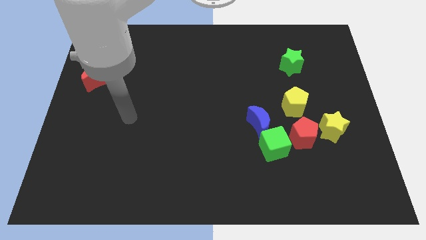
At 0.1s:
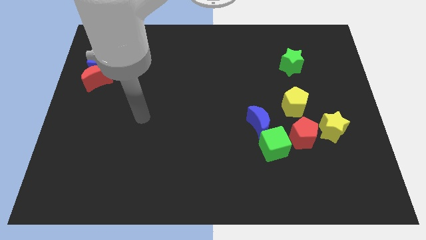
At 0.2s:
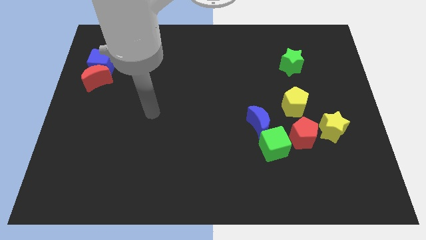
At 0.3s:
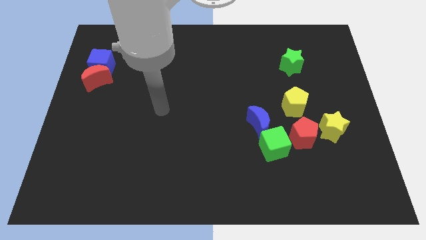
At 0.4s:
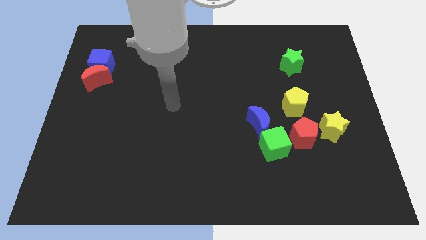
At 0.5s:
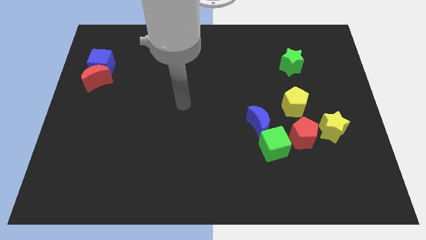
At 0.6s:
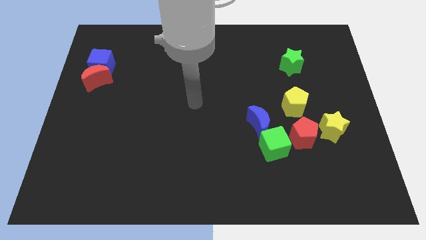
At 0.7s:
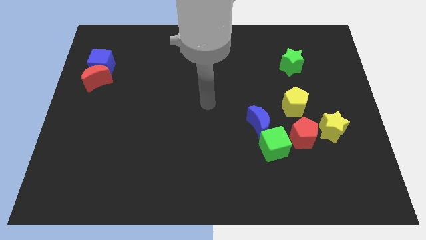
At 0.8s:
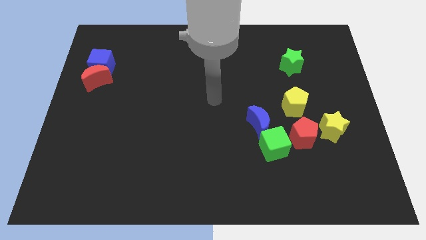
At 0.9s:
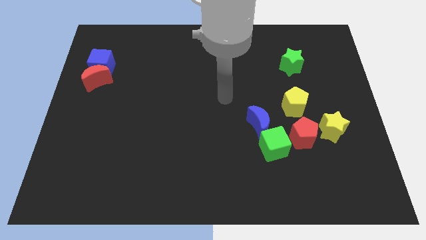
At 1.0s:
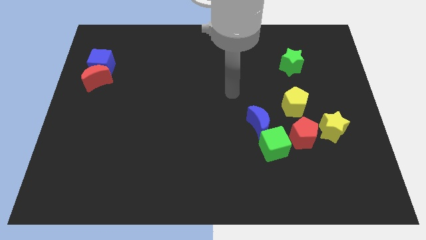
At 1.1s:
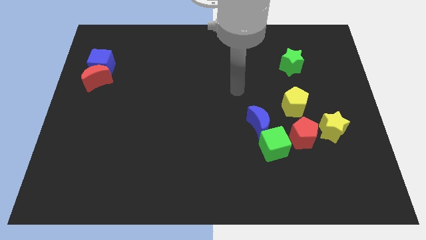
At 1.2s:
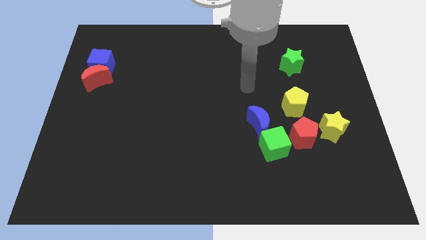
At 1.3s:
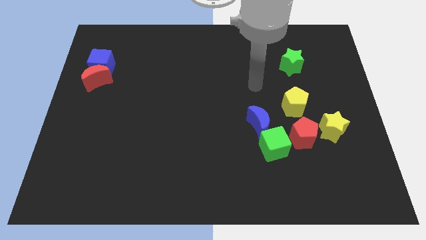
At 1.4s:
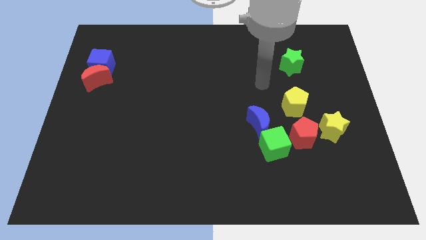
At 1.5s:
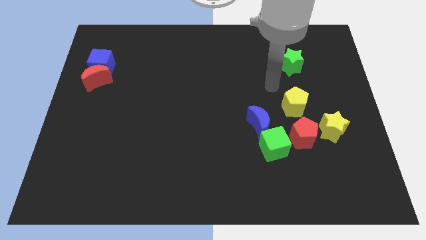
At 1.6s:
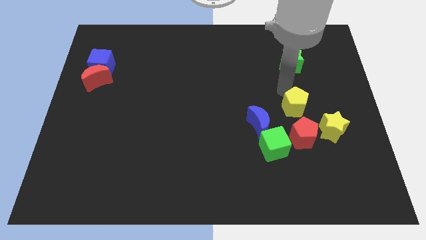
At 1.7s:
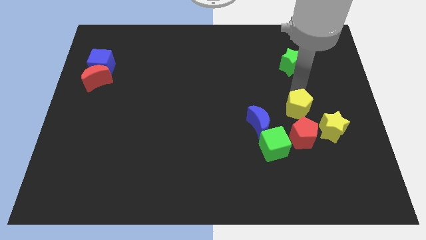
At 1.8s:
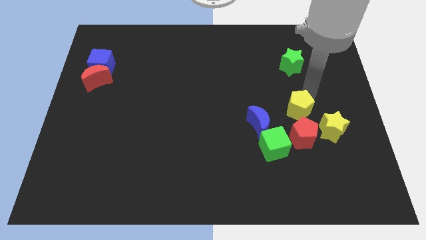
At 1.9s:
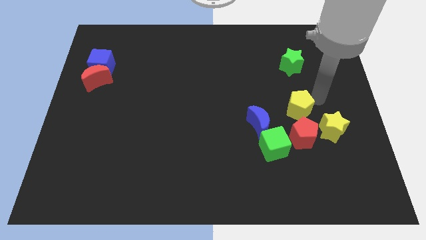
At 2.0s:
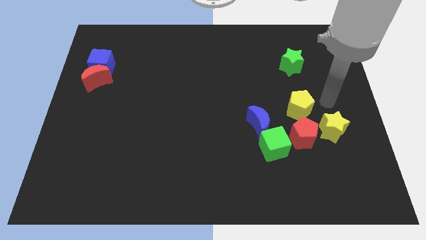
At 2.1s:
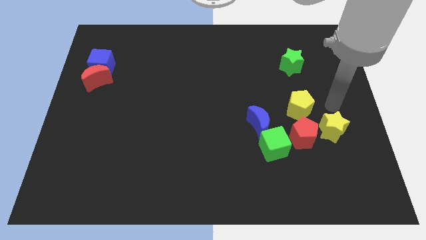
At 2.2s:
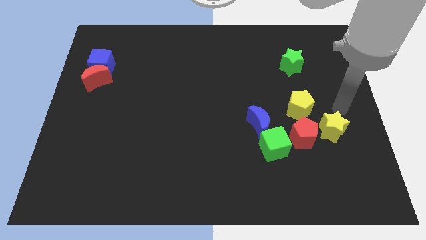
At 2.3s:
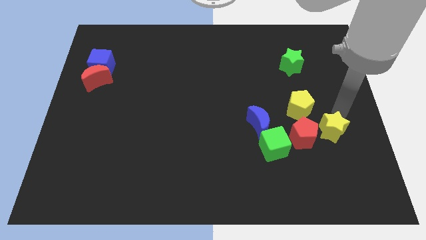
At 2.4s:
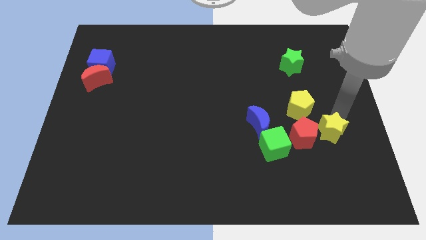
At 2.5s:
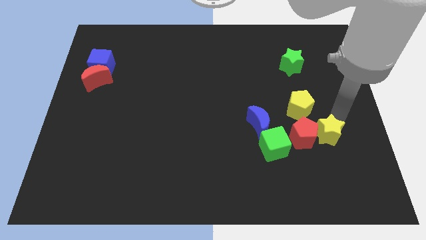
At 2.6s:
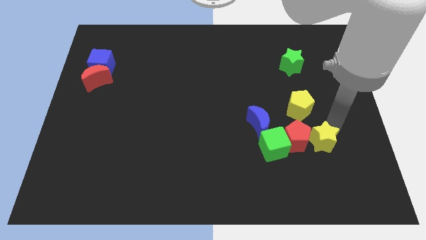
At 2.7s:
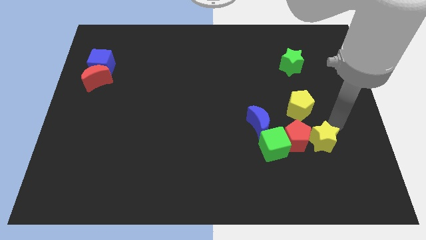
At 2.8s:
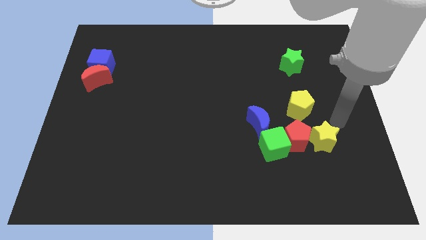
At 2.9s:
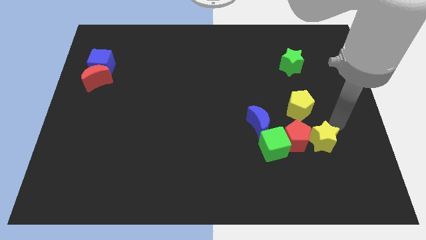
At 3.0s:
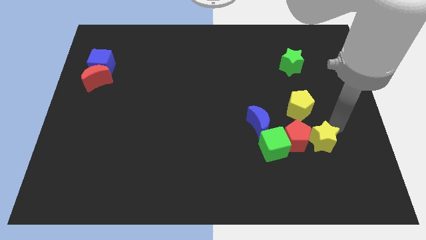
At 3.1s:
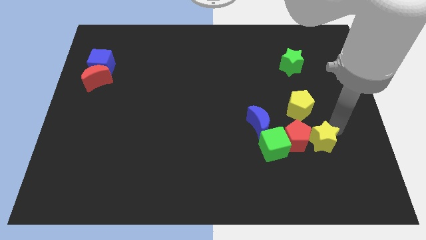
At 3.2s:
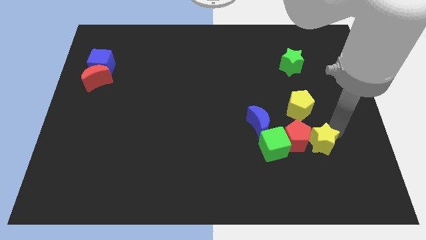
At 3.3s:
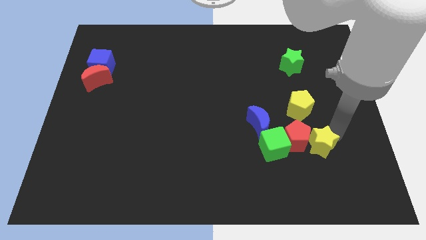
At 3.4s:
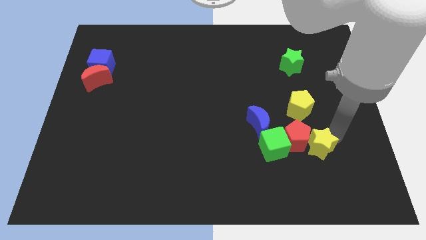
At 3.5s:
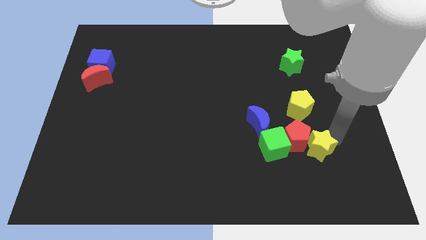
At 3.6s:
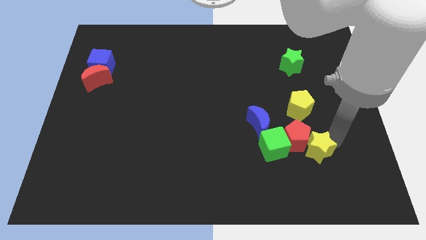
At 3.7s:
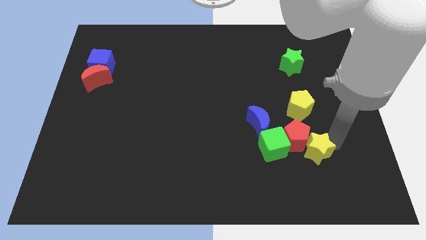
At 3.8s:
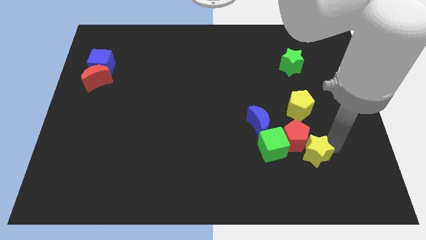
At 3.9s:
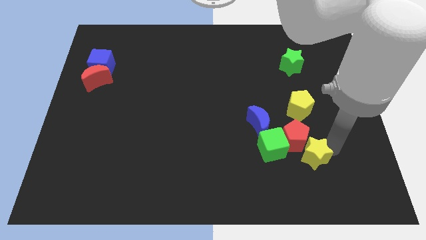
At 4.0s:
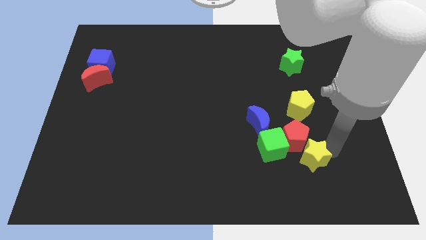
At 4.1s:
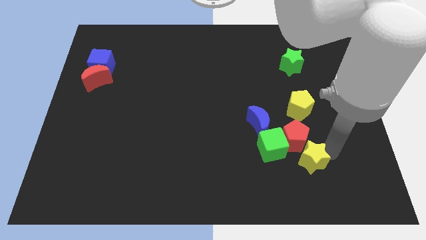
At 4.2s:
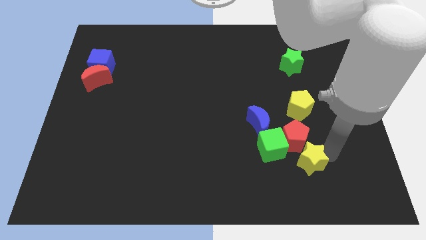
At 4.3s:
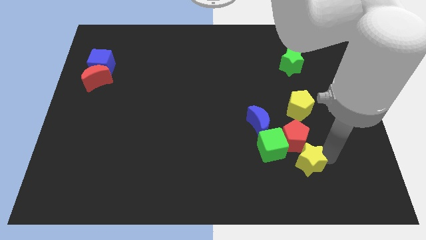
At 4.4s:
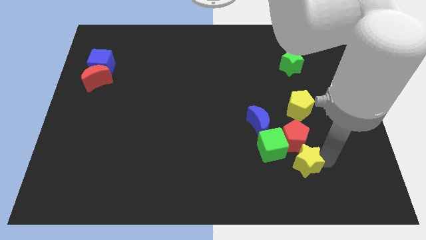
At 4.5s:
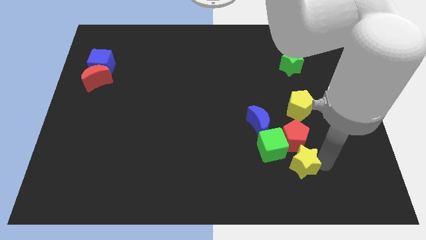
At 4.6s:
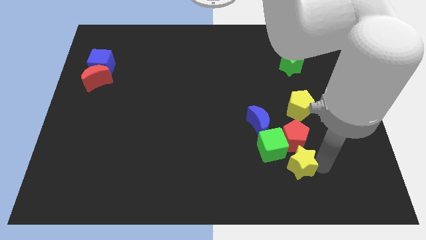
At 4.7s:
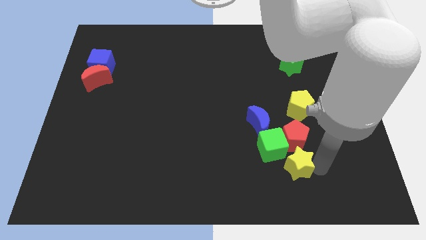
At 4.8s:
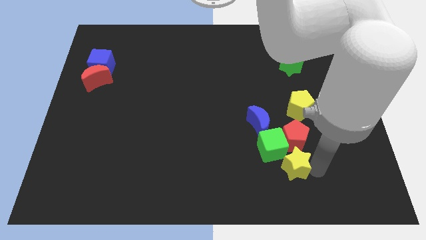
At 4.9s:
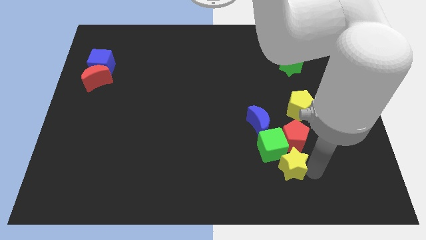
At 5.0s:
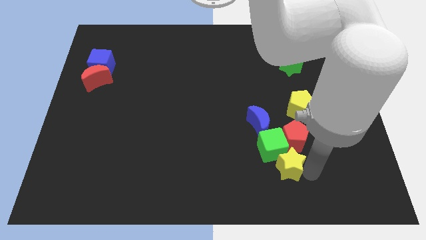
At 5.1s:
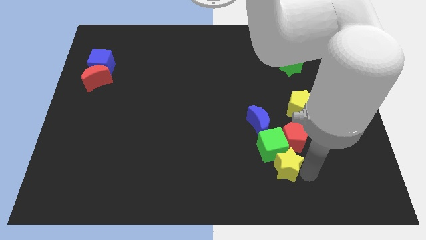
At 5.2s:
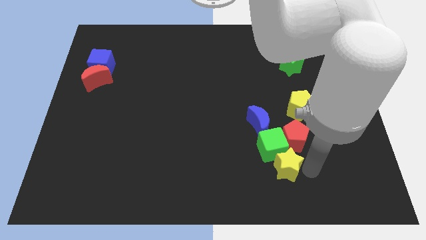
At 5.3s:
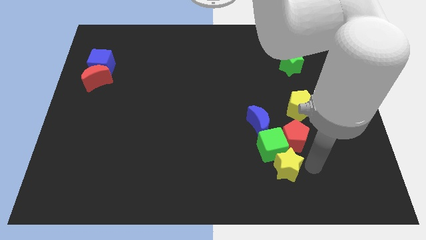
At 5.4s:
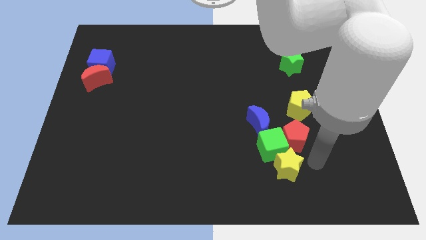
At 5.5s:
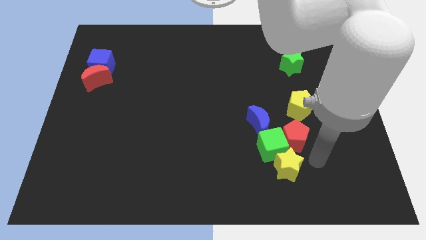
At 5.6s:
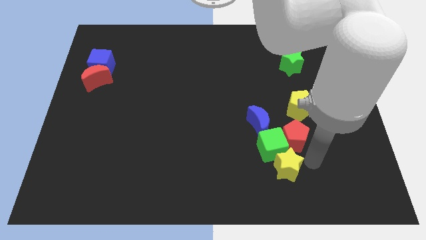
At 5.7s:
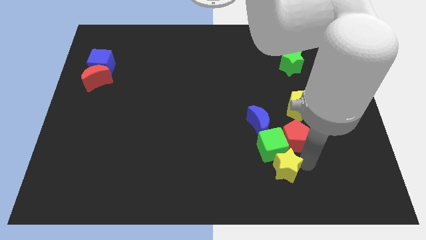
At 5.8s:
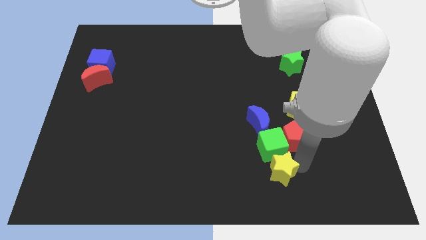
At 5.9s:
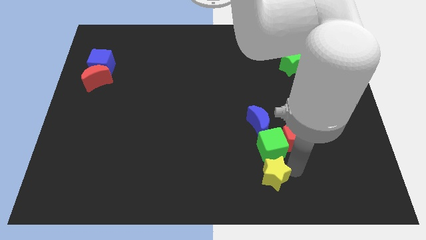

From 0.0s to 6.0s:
put the yellow star diagonally down and to the left of the green cube
